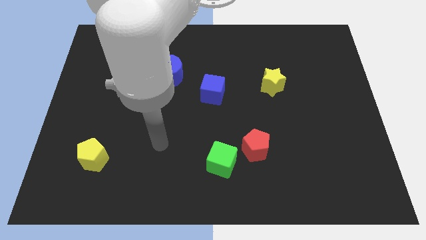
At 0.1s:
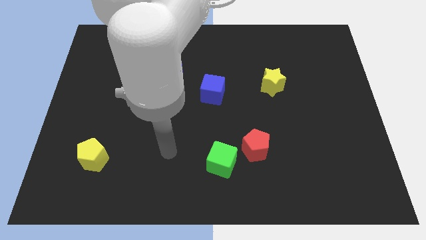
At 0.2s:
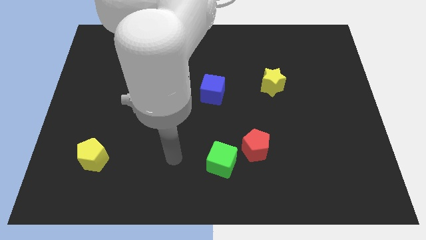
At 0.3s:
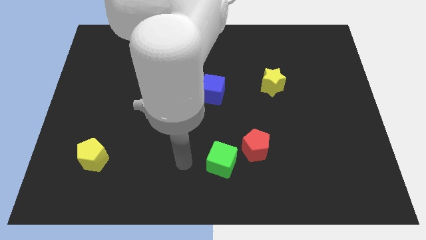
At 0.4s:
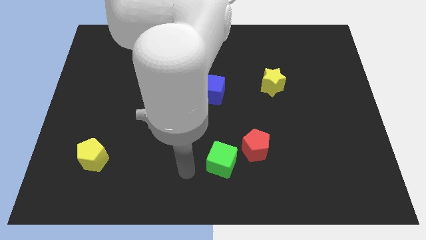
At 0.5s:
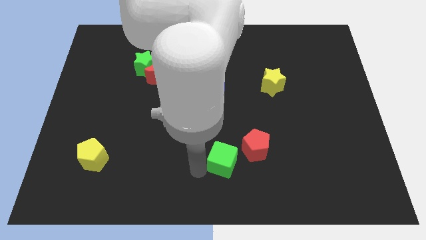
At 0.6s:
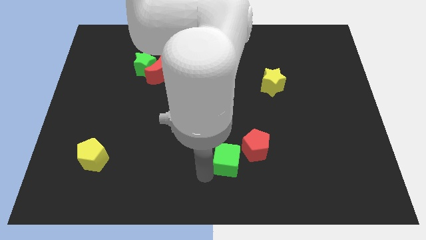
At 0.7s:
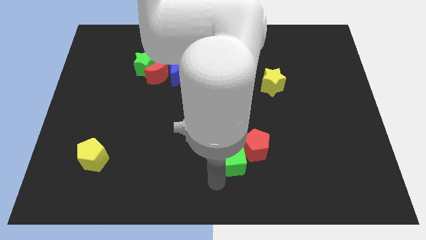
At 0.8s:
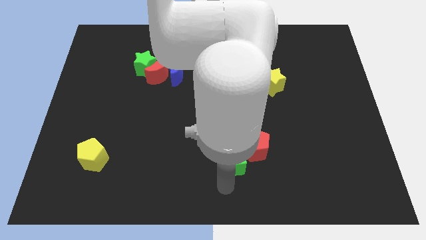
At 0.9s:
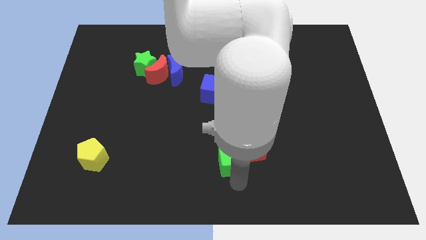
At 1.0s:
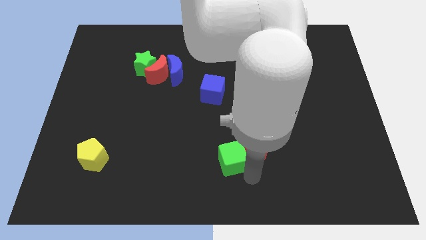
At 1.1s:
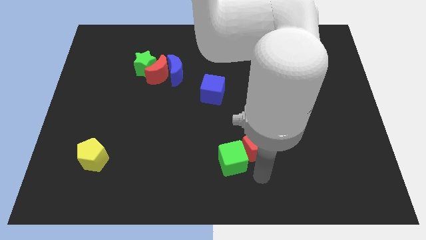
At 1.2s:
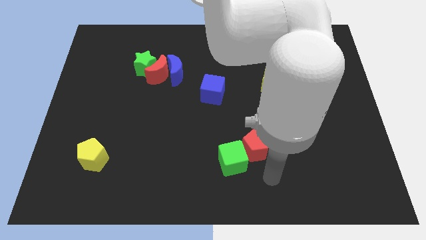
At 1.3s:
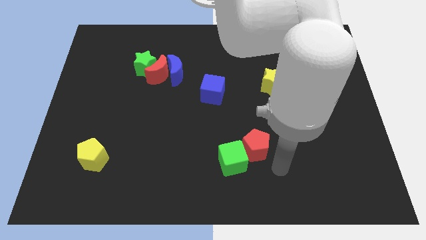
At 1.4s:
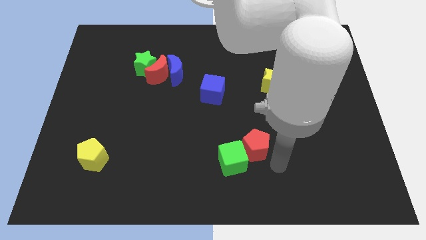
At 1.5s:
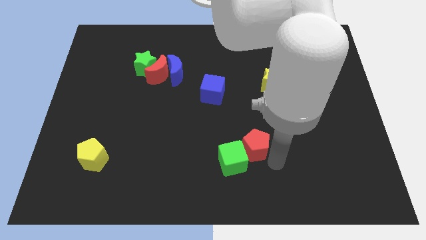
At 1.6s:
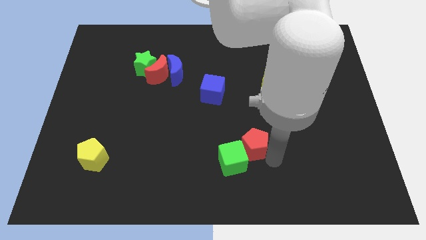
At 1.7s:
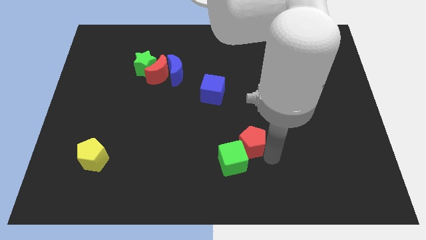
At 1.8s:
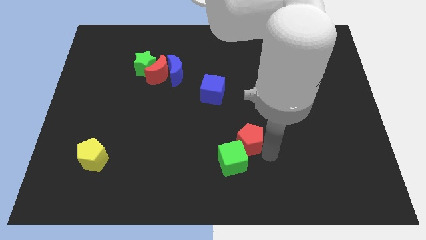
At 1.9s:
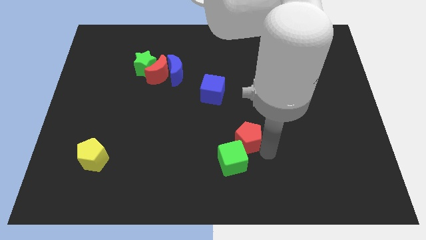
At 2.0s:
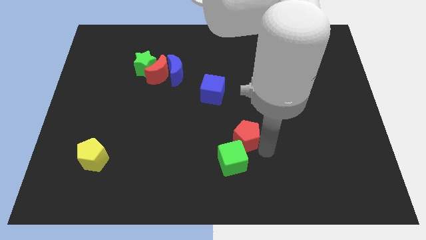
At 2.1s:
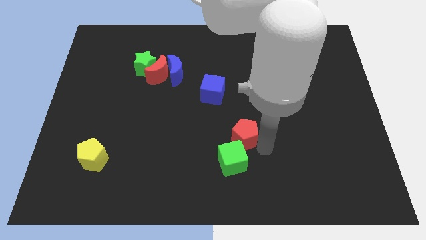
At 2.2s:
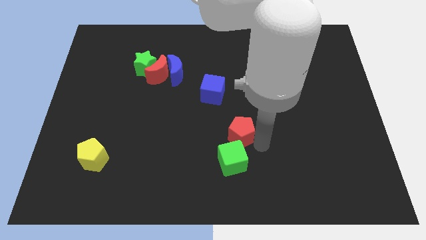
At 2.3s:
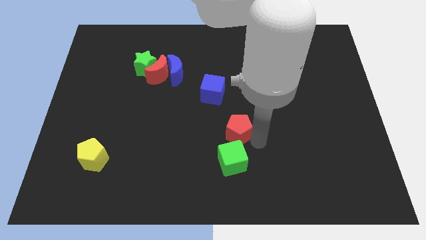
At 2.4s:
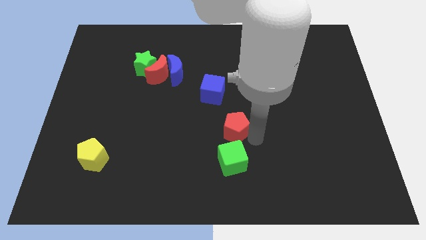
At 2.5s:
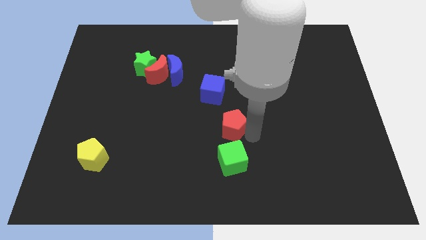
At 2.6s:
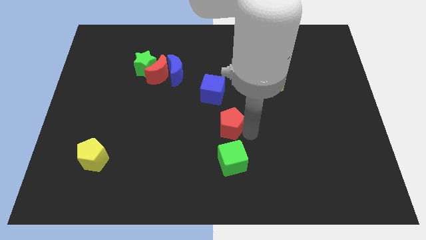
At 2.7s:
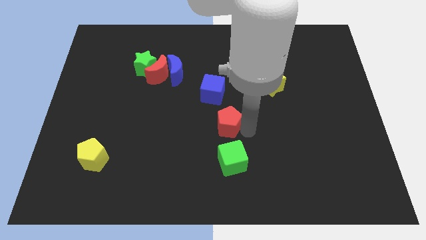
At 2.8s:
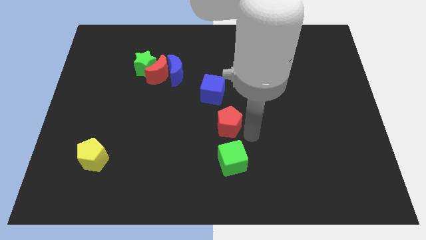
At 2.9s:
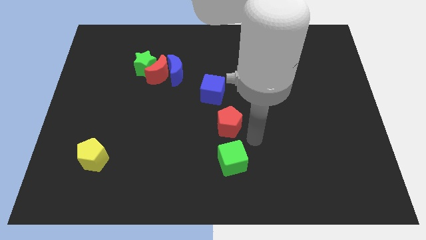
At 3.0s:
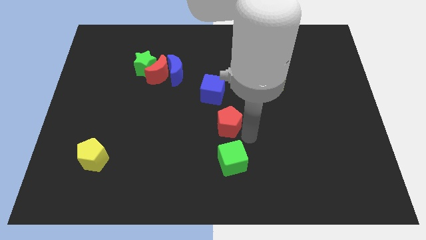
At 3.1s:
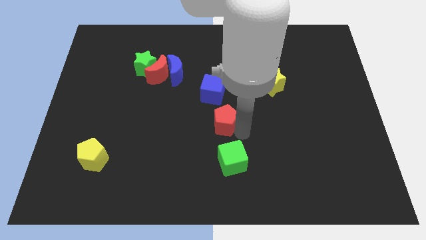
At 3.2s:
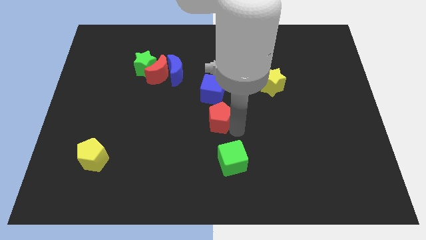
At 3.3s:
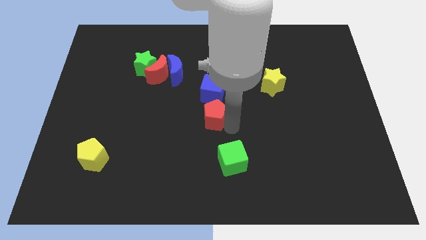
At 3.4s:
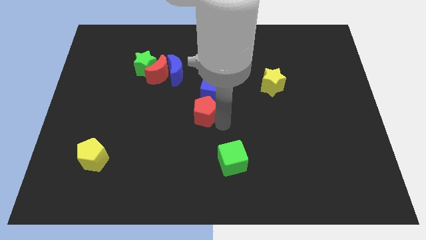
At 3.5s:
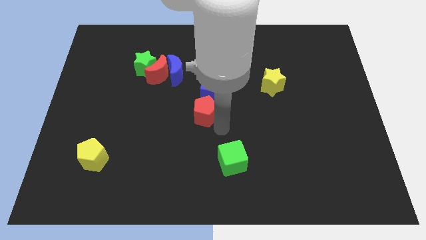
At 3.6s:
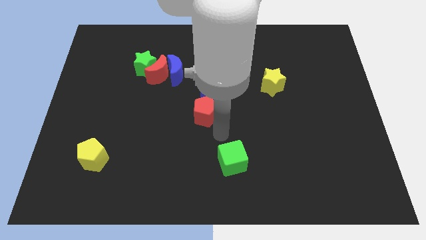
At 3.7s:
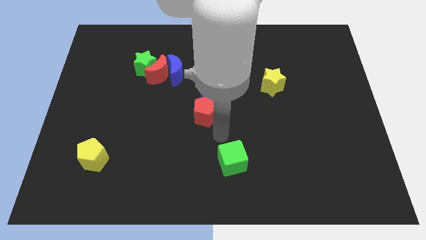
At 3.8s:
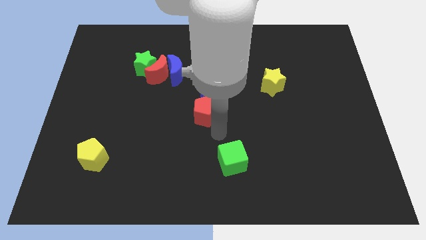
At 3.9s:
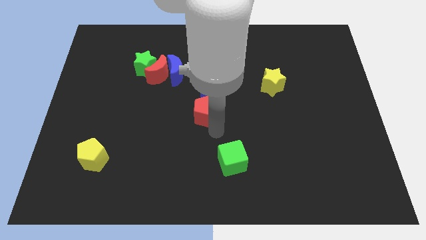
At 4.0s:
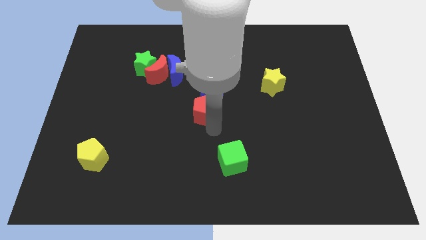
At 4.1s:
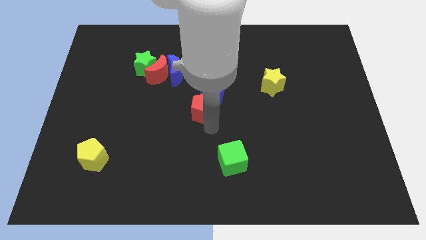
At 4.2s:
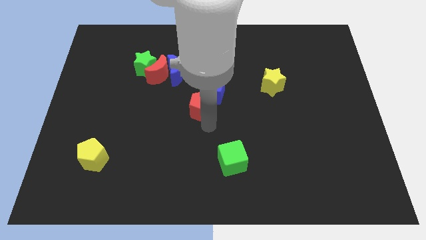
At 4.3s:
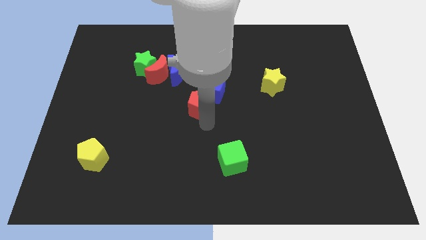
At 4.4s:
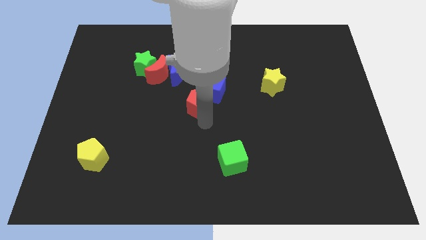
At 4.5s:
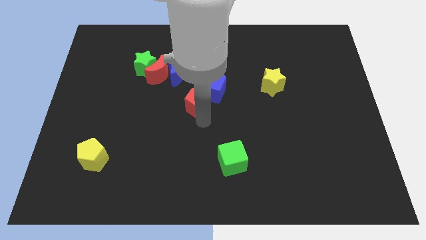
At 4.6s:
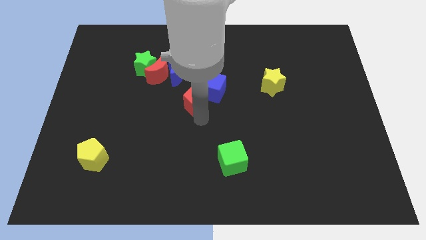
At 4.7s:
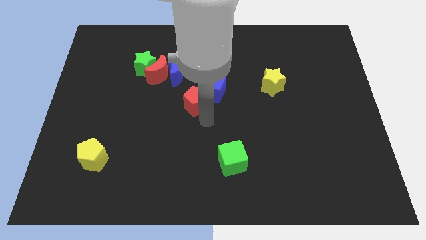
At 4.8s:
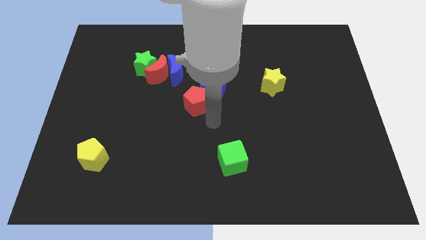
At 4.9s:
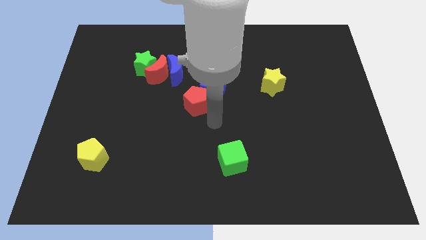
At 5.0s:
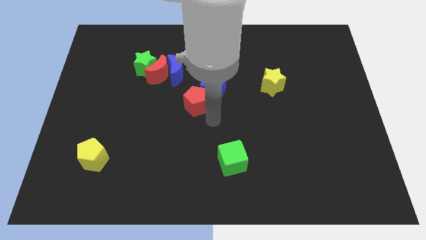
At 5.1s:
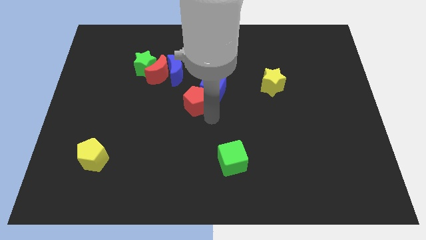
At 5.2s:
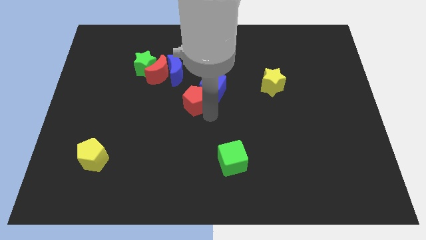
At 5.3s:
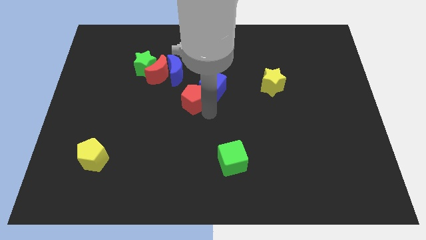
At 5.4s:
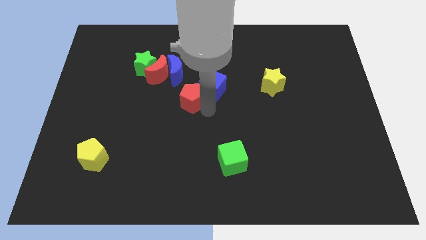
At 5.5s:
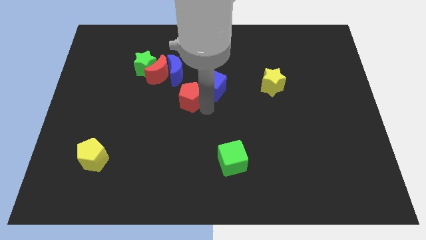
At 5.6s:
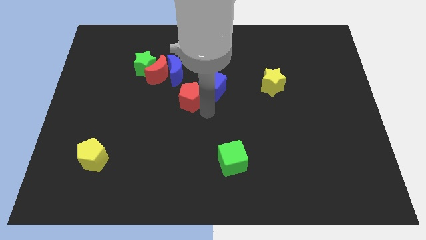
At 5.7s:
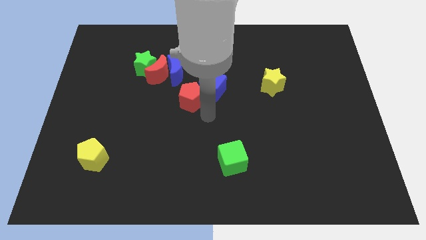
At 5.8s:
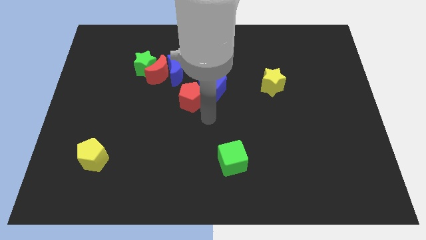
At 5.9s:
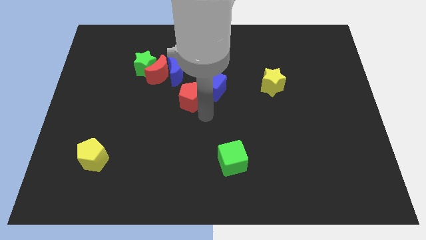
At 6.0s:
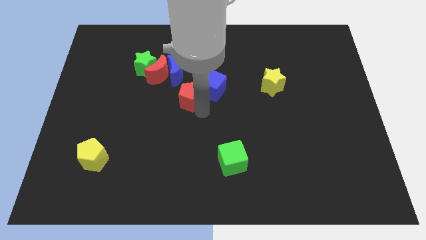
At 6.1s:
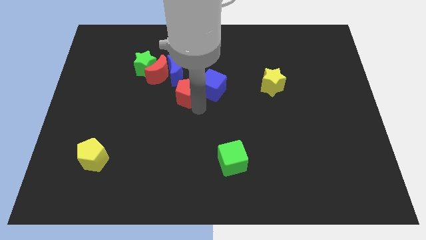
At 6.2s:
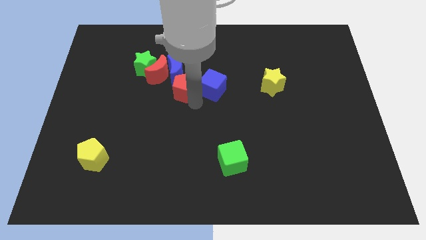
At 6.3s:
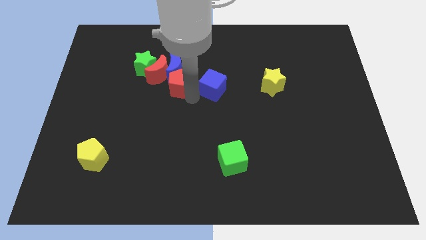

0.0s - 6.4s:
put the red pentagon to the bottom right of the green star

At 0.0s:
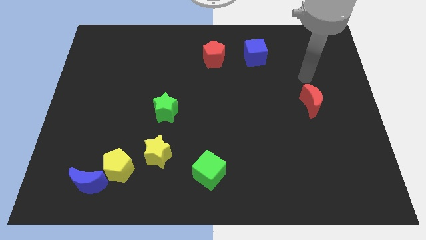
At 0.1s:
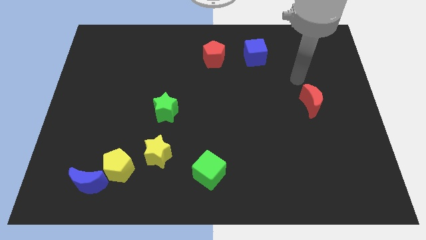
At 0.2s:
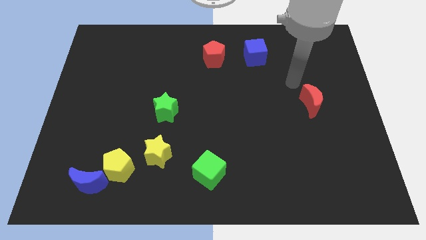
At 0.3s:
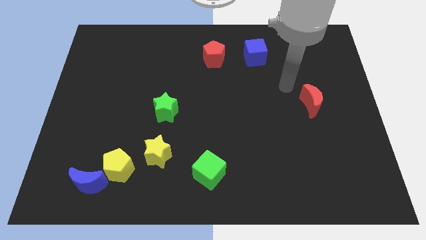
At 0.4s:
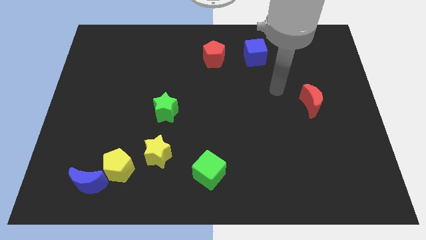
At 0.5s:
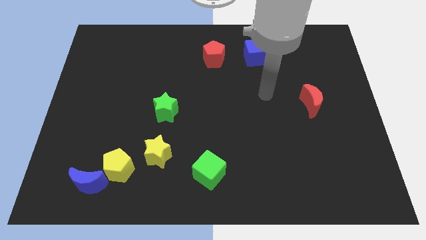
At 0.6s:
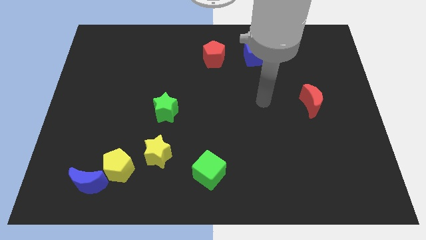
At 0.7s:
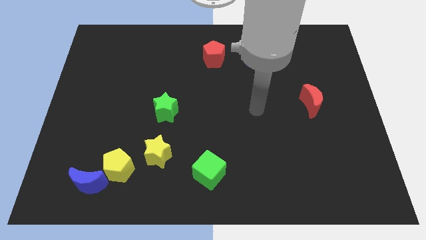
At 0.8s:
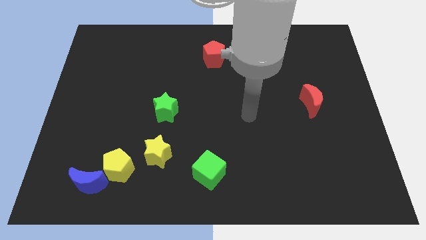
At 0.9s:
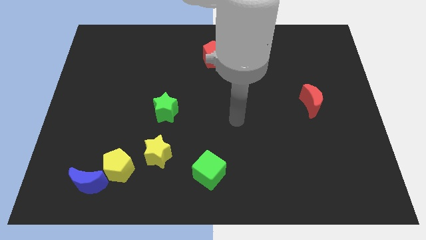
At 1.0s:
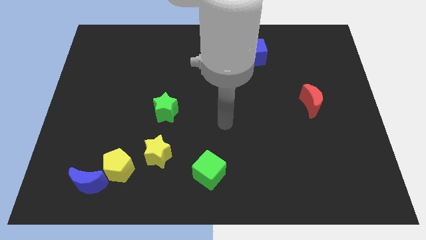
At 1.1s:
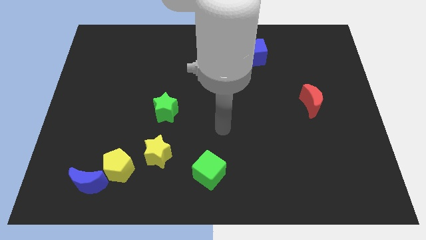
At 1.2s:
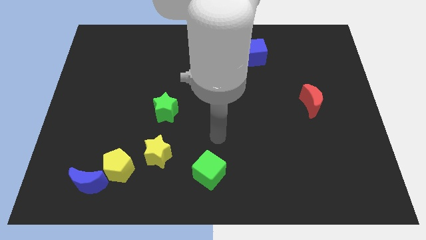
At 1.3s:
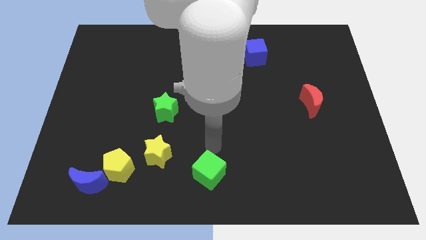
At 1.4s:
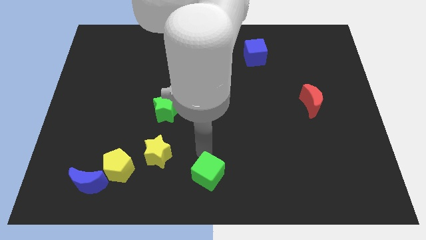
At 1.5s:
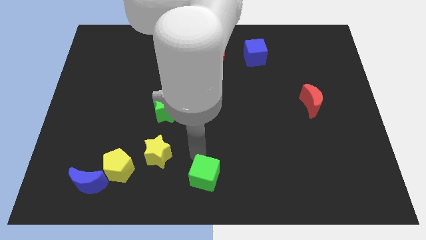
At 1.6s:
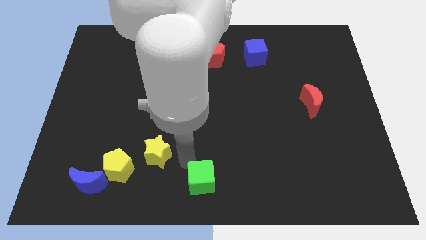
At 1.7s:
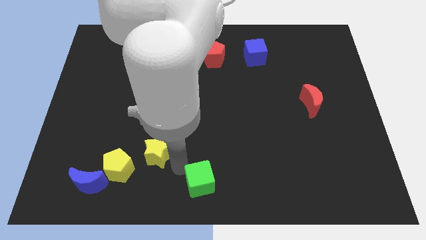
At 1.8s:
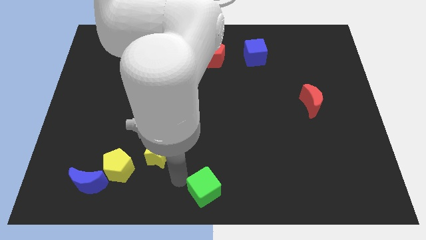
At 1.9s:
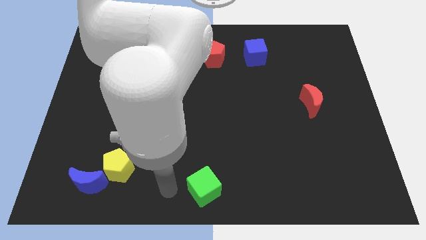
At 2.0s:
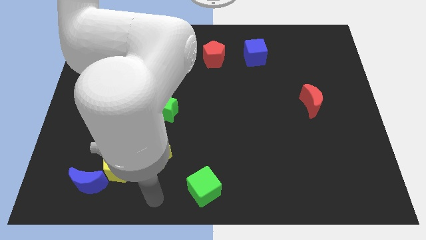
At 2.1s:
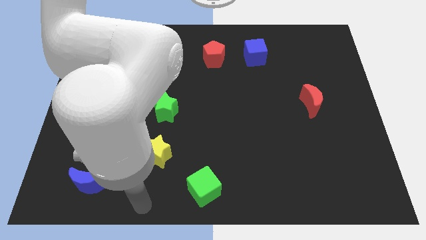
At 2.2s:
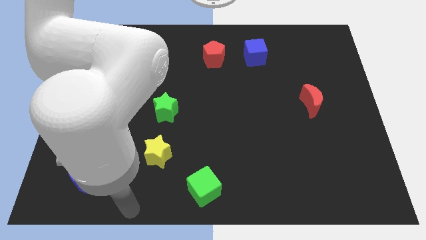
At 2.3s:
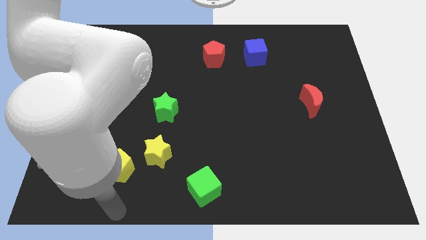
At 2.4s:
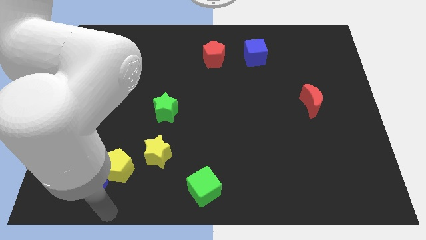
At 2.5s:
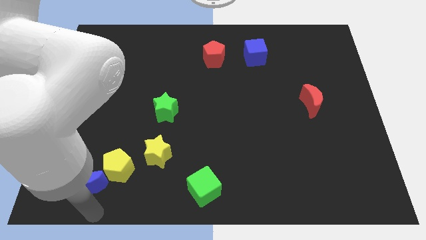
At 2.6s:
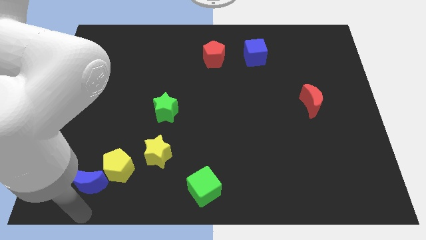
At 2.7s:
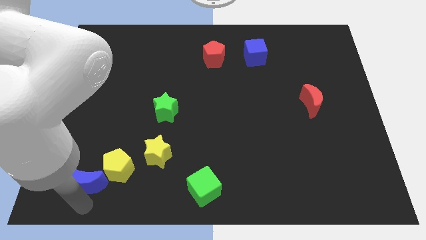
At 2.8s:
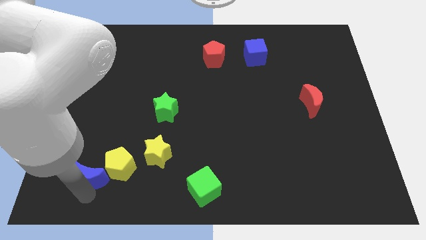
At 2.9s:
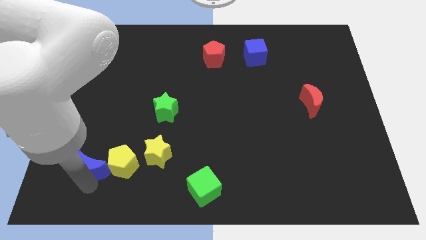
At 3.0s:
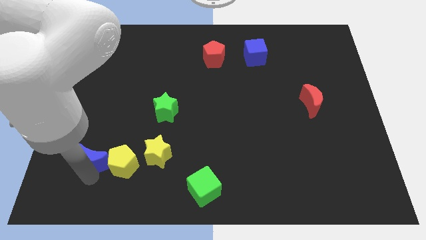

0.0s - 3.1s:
slide the blue moon diagonally up and to the left of the yellow pentagon
